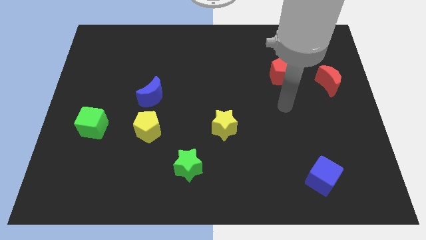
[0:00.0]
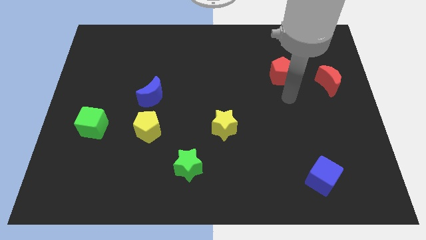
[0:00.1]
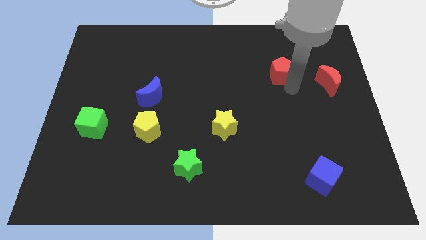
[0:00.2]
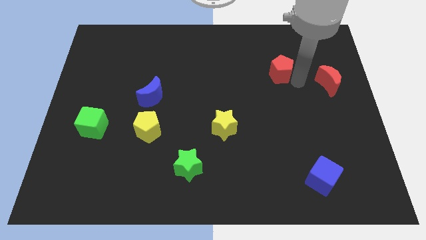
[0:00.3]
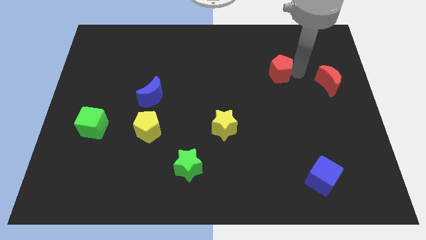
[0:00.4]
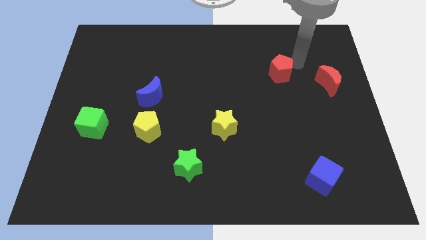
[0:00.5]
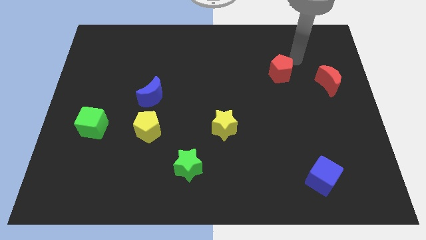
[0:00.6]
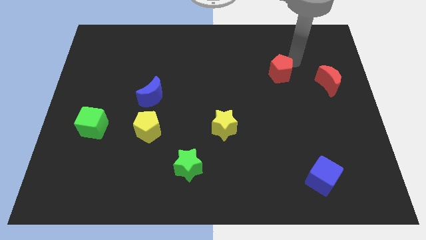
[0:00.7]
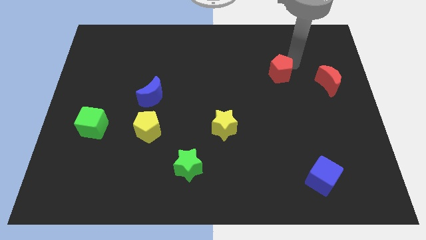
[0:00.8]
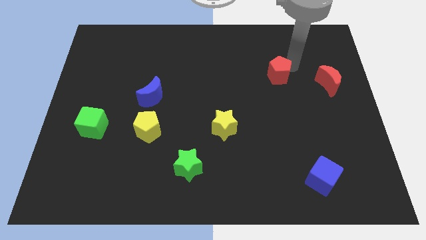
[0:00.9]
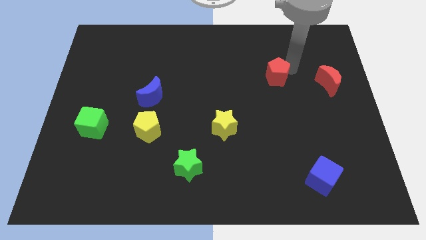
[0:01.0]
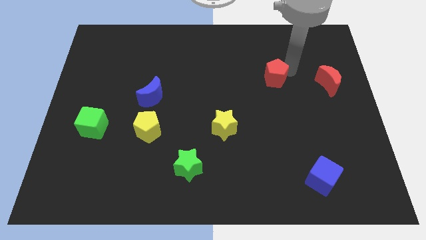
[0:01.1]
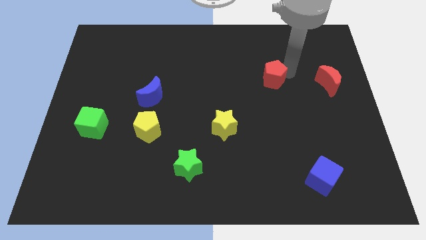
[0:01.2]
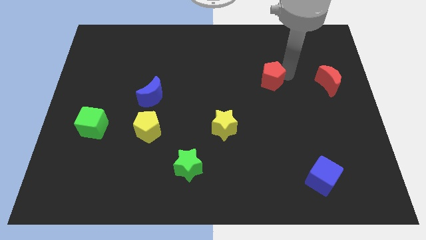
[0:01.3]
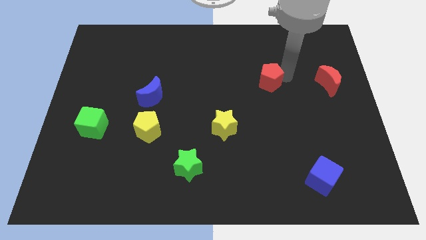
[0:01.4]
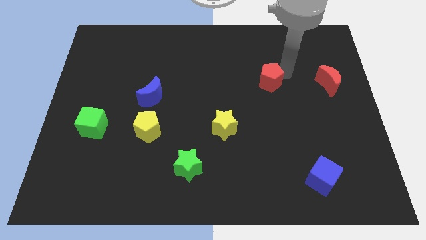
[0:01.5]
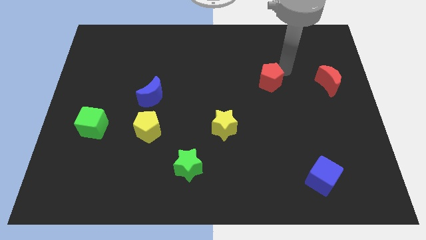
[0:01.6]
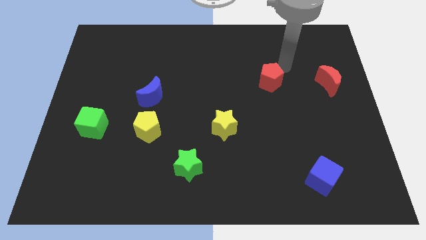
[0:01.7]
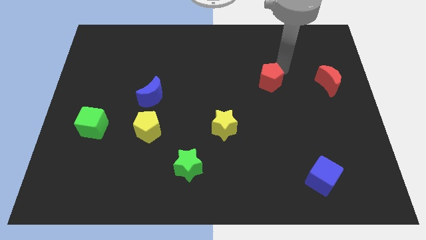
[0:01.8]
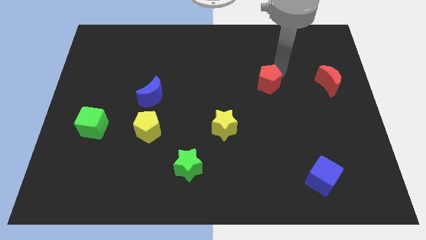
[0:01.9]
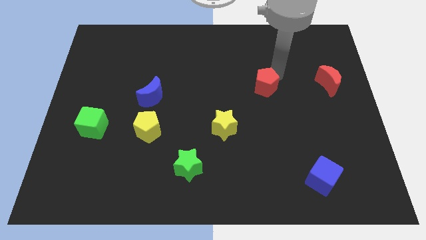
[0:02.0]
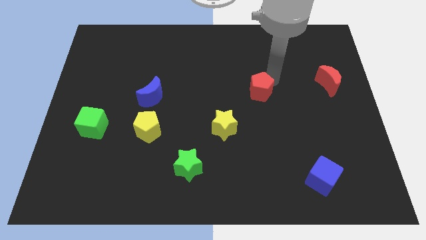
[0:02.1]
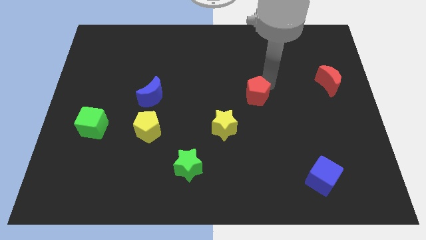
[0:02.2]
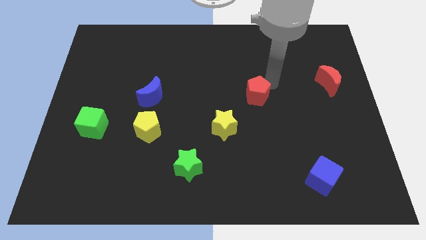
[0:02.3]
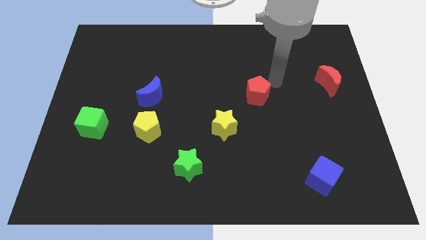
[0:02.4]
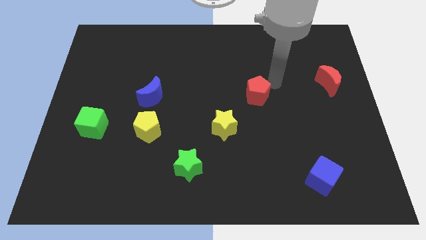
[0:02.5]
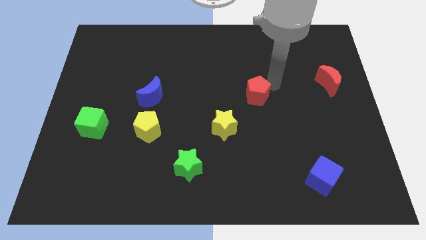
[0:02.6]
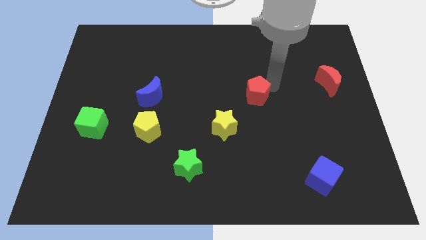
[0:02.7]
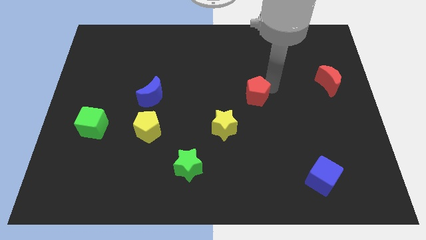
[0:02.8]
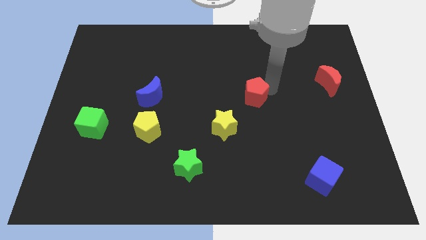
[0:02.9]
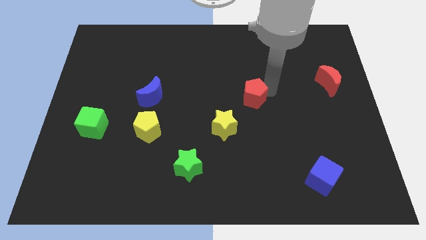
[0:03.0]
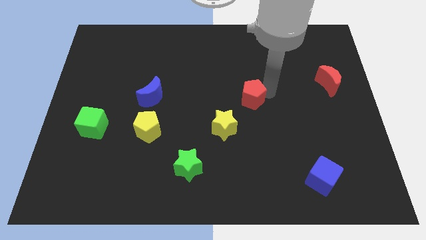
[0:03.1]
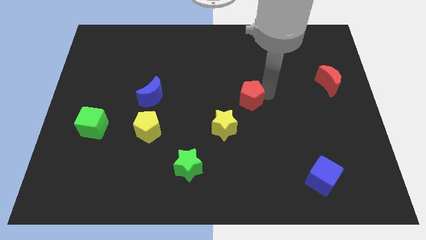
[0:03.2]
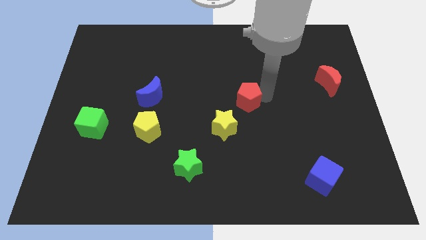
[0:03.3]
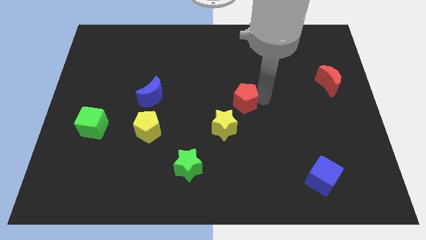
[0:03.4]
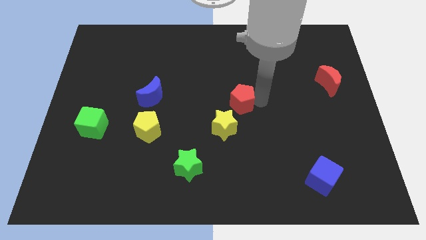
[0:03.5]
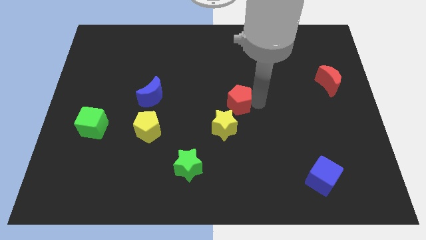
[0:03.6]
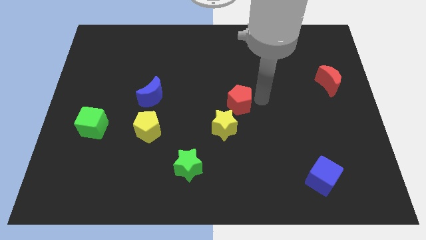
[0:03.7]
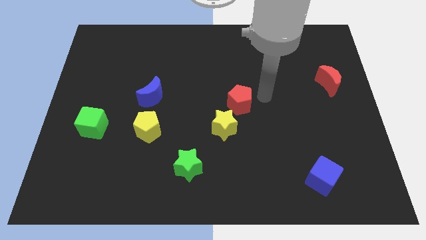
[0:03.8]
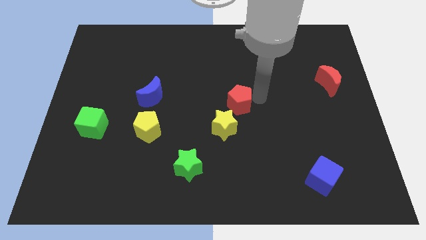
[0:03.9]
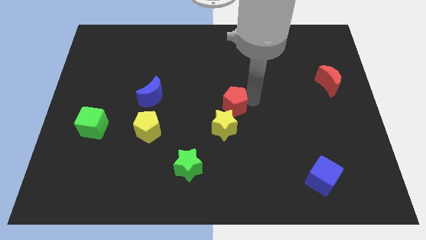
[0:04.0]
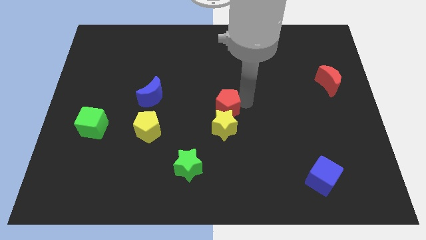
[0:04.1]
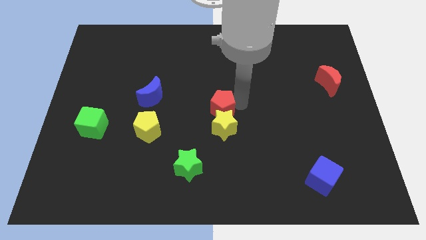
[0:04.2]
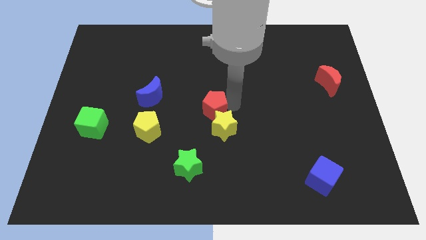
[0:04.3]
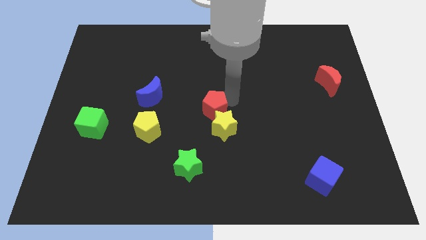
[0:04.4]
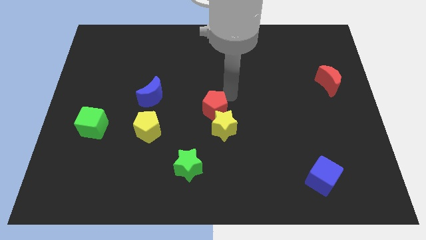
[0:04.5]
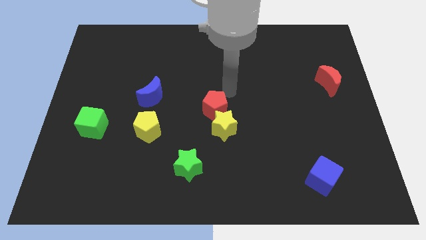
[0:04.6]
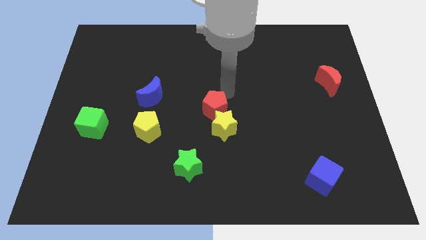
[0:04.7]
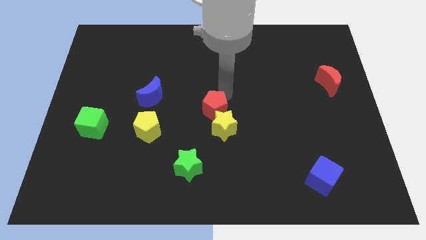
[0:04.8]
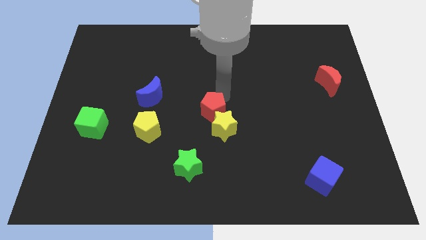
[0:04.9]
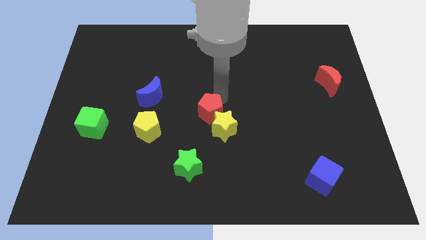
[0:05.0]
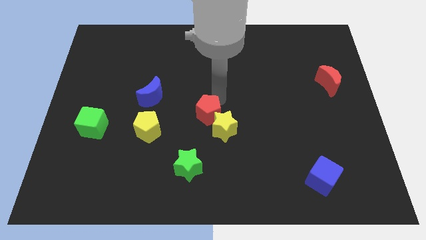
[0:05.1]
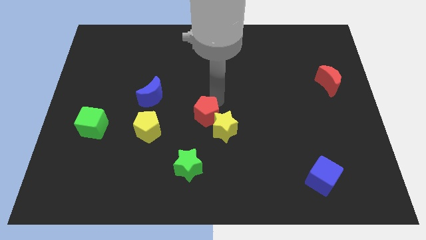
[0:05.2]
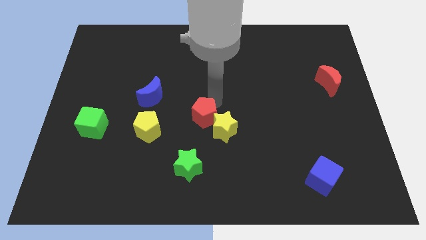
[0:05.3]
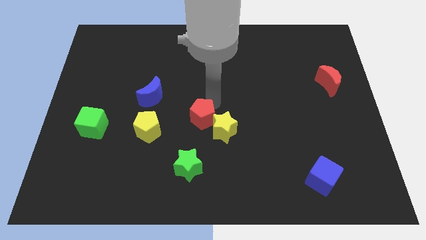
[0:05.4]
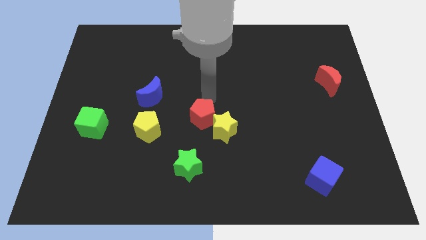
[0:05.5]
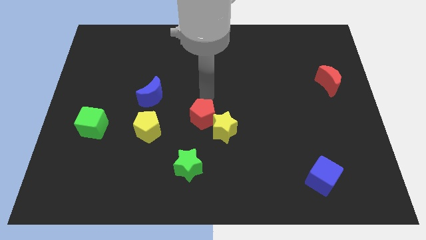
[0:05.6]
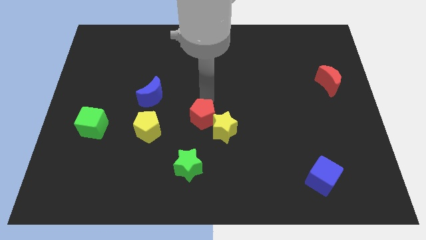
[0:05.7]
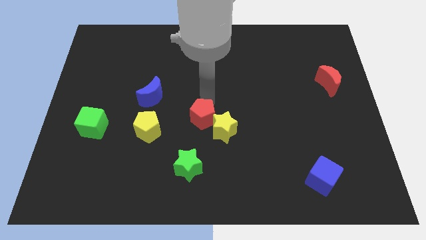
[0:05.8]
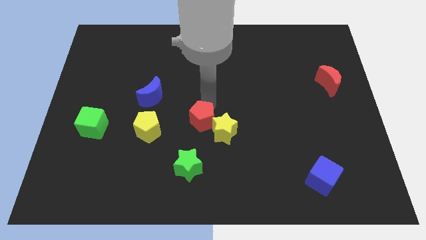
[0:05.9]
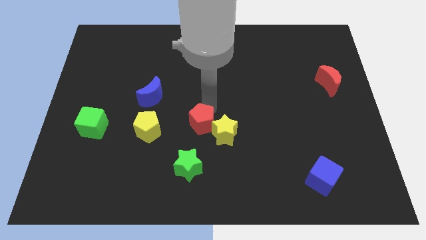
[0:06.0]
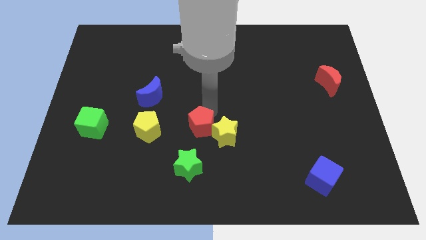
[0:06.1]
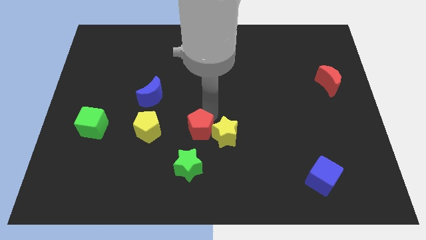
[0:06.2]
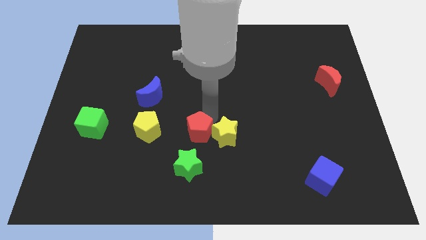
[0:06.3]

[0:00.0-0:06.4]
push the red pentagon to the bottom left side of the yellow star

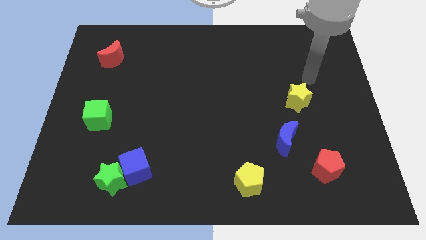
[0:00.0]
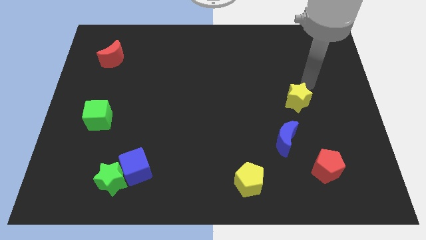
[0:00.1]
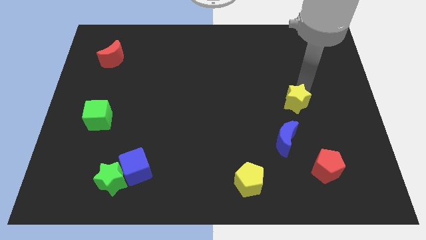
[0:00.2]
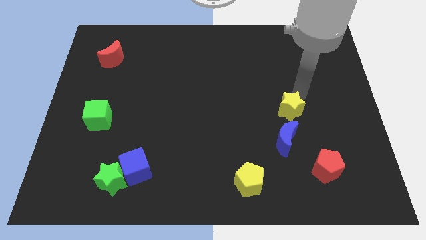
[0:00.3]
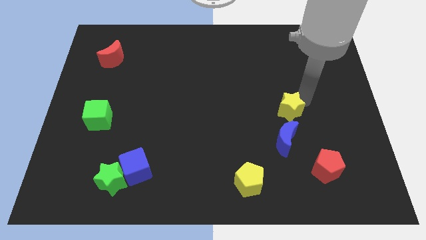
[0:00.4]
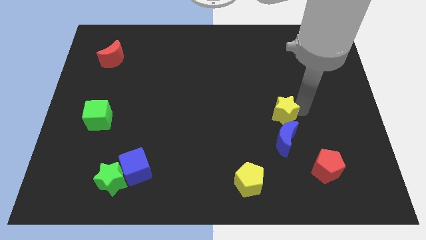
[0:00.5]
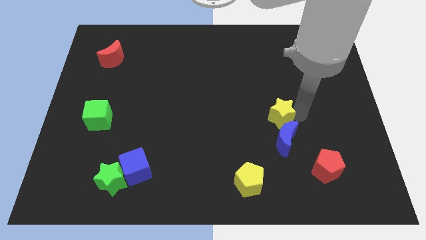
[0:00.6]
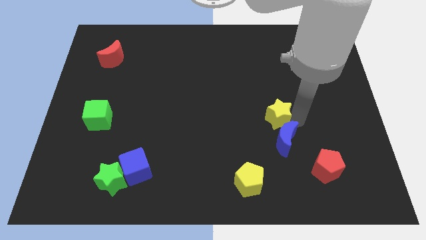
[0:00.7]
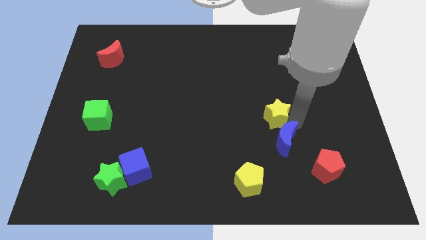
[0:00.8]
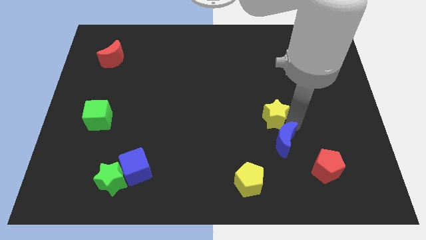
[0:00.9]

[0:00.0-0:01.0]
push the blue moon diagonally up and to the right of the yellow pentagon
